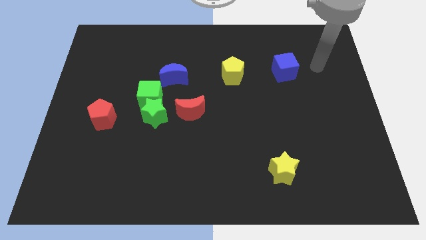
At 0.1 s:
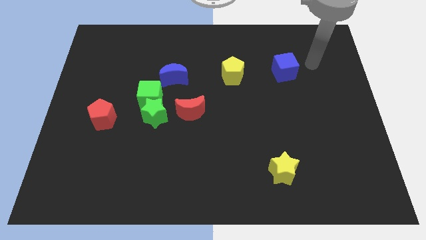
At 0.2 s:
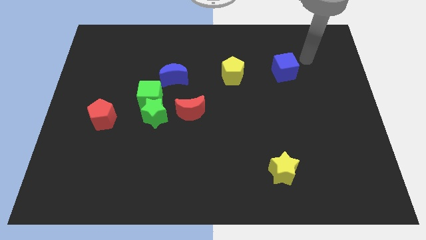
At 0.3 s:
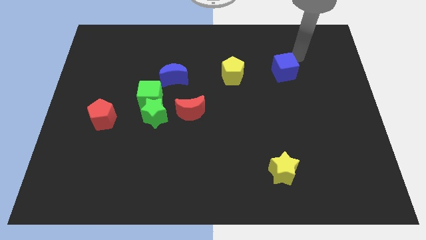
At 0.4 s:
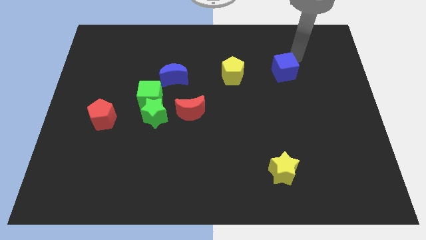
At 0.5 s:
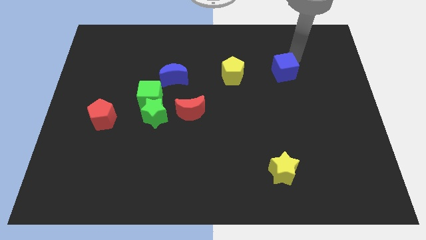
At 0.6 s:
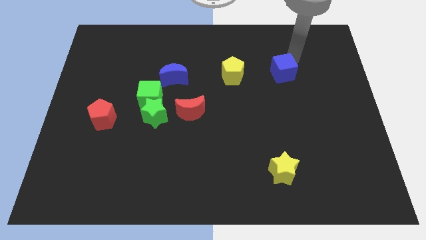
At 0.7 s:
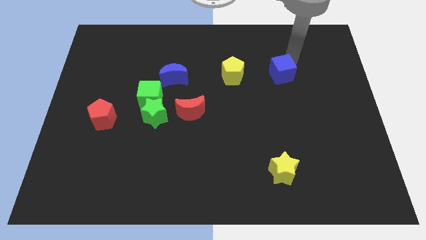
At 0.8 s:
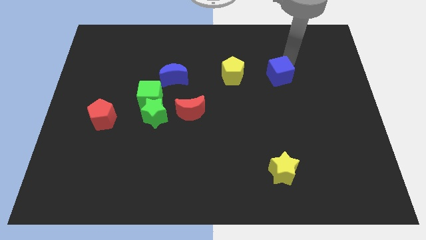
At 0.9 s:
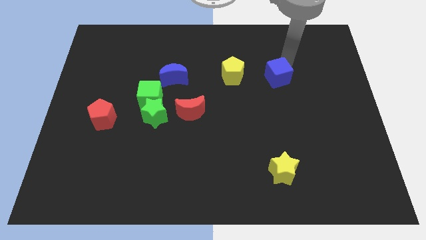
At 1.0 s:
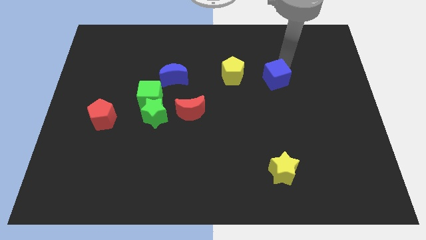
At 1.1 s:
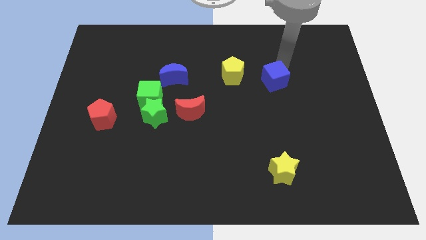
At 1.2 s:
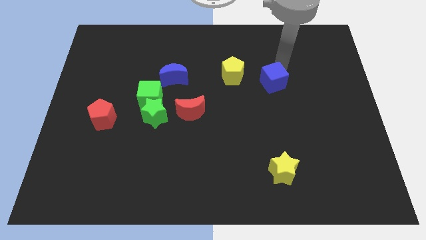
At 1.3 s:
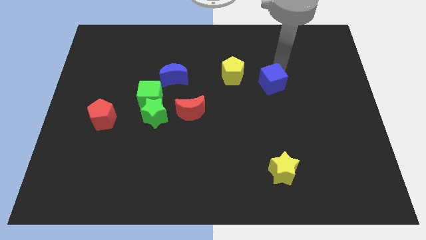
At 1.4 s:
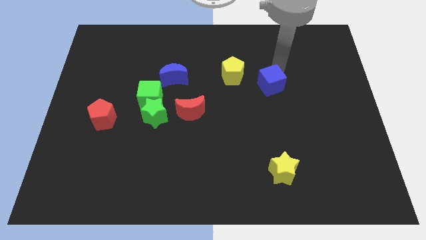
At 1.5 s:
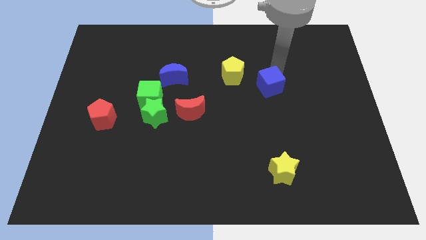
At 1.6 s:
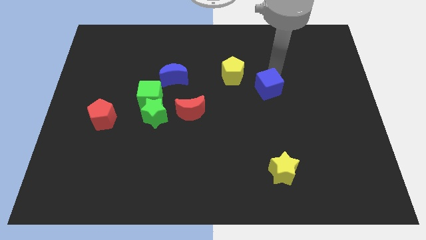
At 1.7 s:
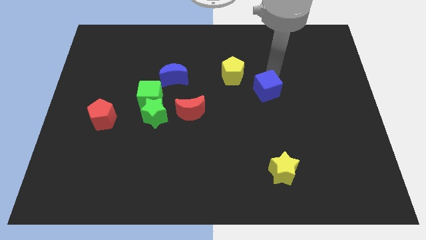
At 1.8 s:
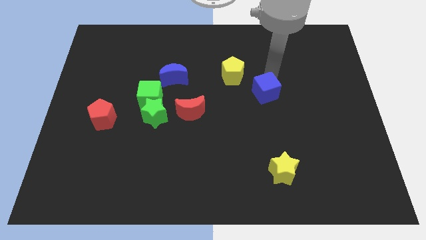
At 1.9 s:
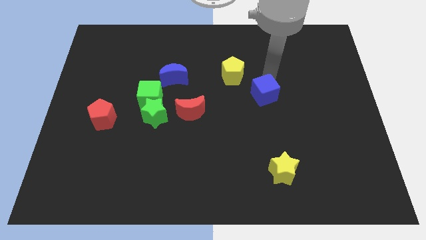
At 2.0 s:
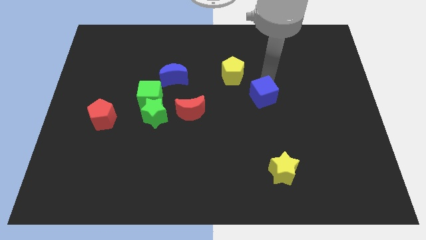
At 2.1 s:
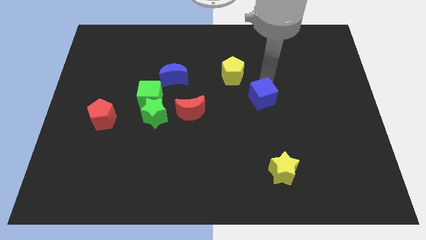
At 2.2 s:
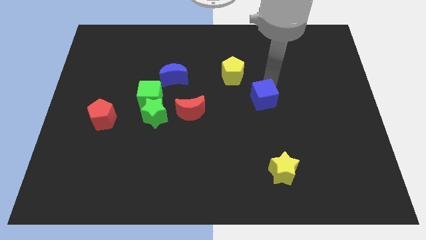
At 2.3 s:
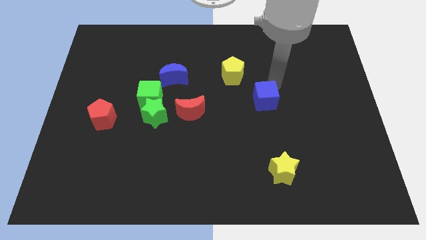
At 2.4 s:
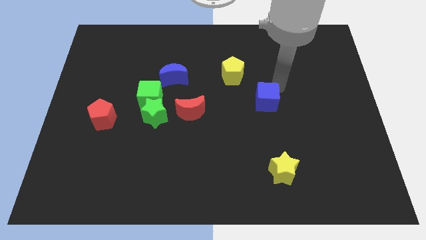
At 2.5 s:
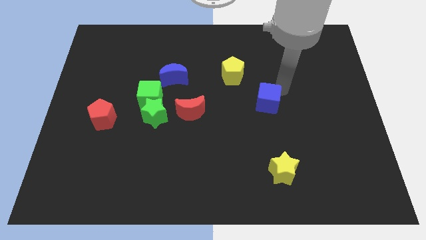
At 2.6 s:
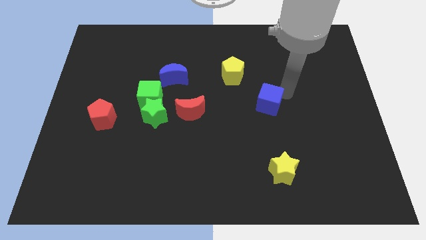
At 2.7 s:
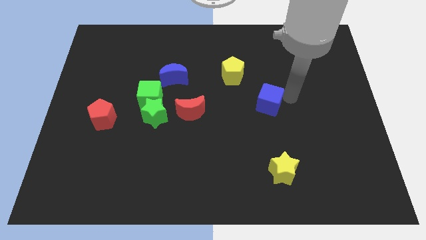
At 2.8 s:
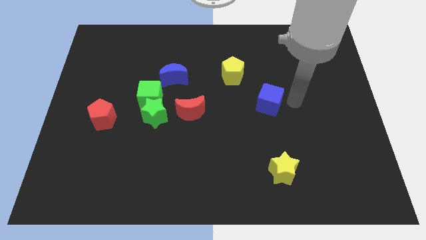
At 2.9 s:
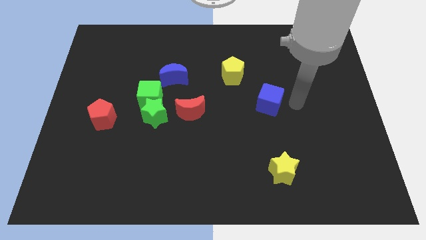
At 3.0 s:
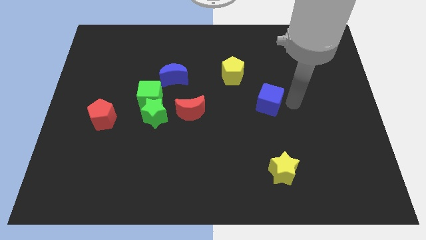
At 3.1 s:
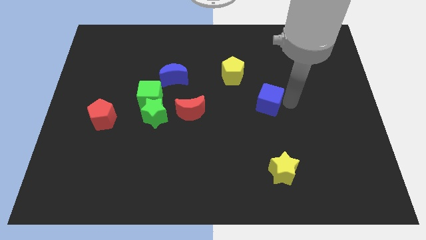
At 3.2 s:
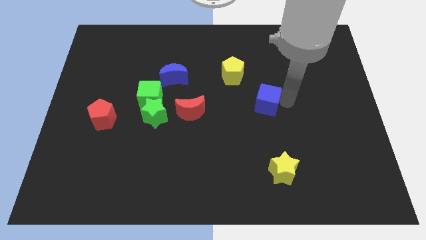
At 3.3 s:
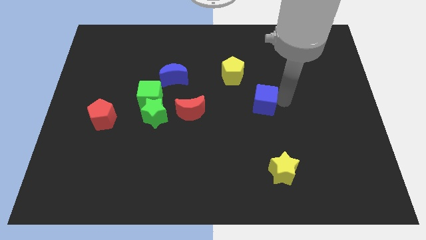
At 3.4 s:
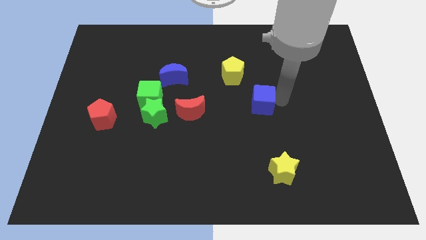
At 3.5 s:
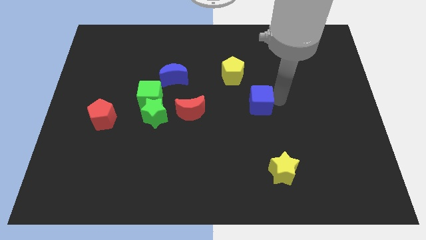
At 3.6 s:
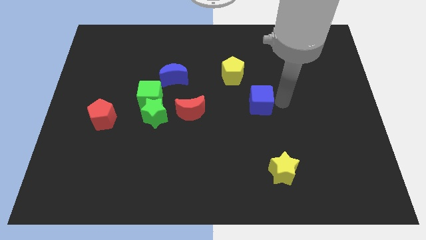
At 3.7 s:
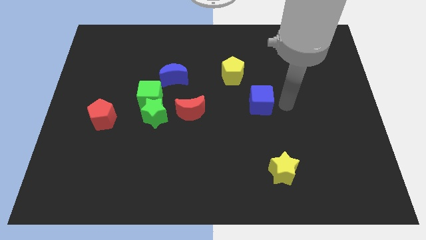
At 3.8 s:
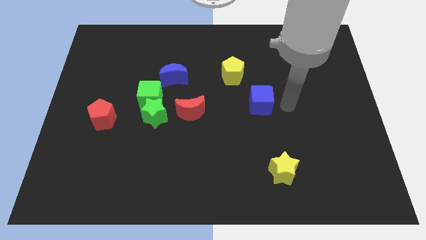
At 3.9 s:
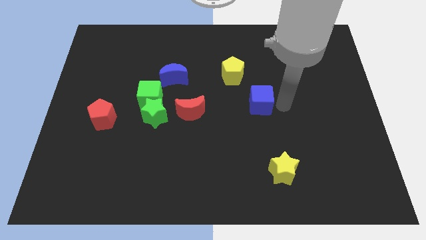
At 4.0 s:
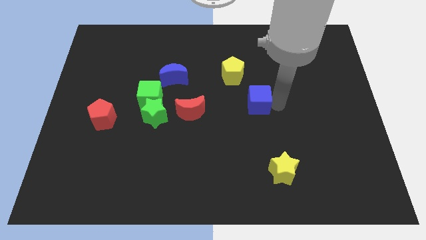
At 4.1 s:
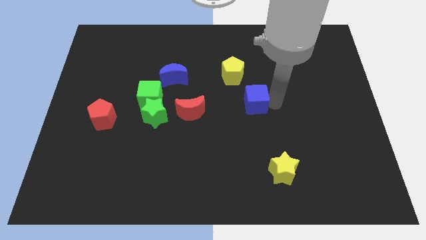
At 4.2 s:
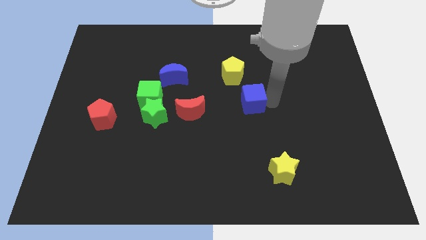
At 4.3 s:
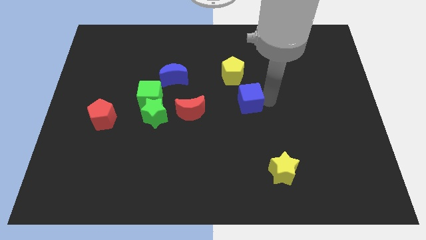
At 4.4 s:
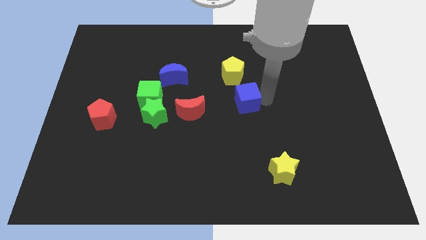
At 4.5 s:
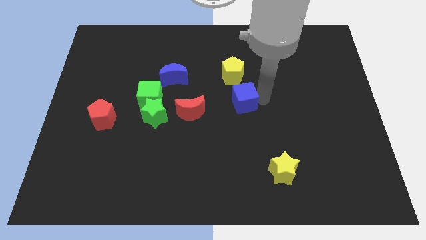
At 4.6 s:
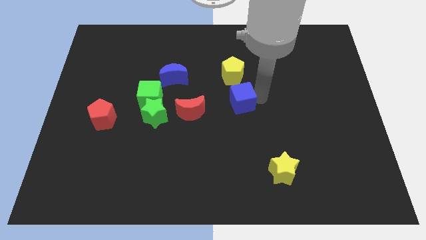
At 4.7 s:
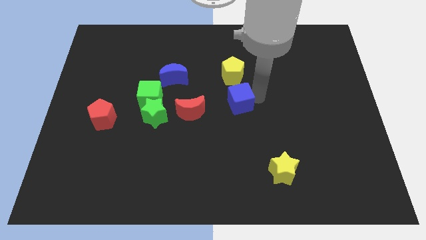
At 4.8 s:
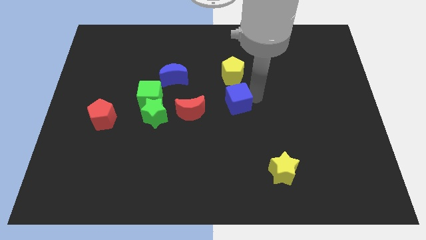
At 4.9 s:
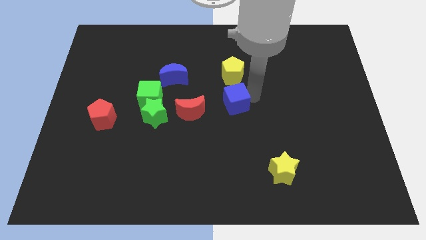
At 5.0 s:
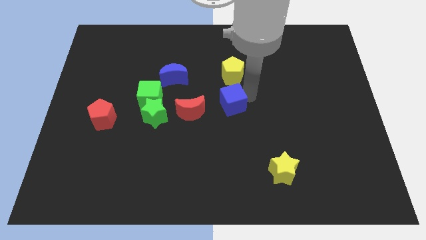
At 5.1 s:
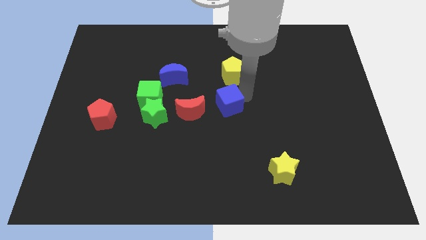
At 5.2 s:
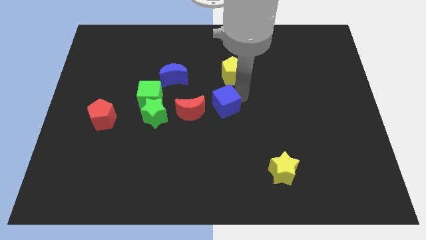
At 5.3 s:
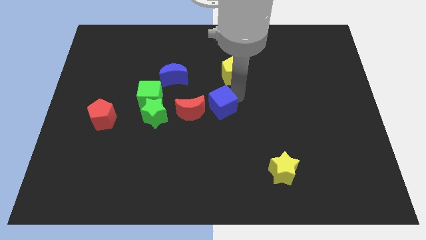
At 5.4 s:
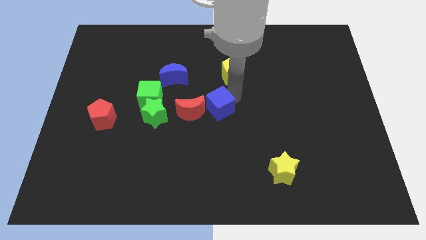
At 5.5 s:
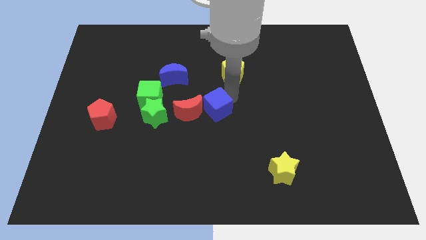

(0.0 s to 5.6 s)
slide the blue cube down and to the left

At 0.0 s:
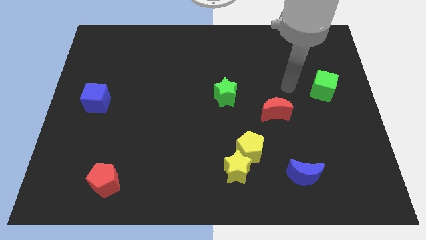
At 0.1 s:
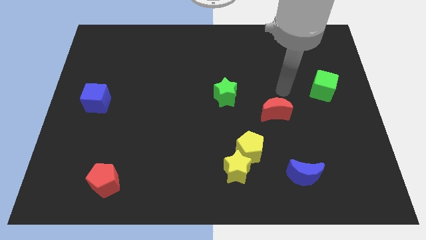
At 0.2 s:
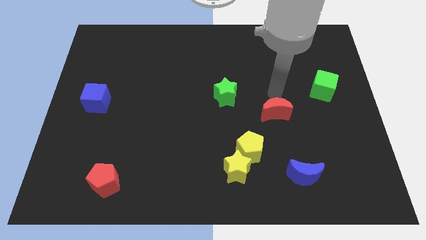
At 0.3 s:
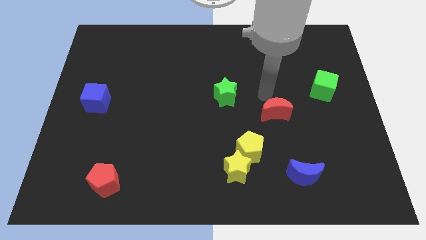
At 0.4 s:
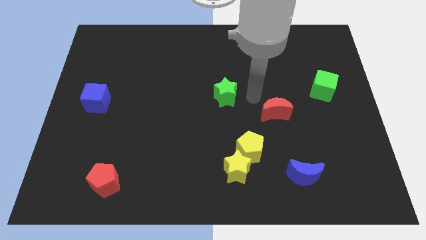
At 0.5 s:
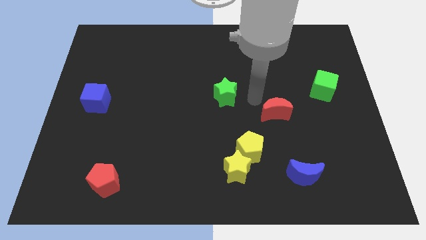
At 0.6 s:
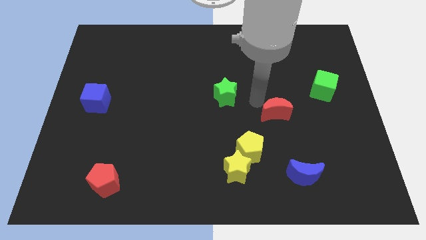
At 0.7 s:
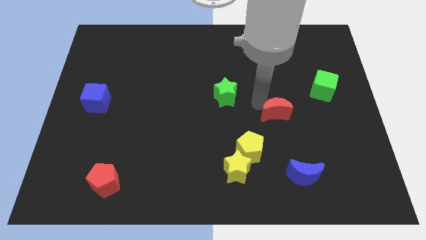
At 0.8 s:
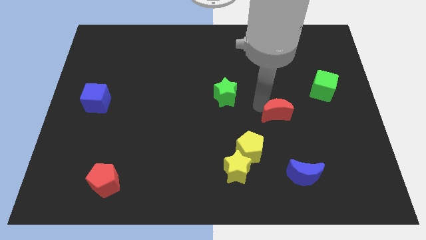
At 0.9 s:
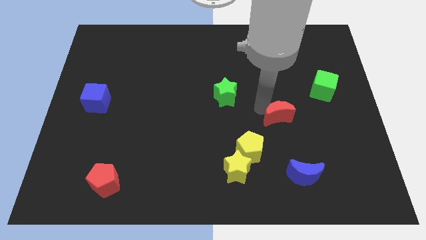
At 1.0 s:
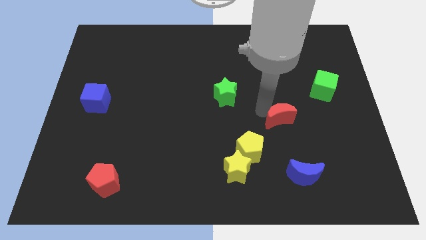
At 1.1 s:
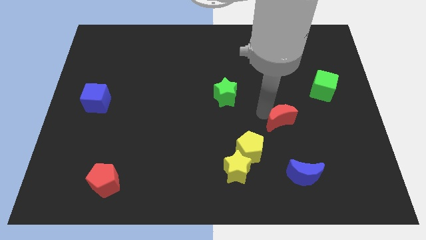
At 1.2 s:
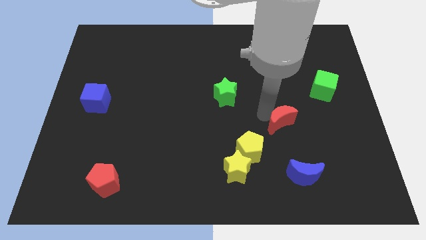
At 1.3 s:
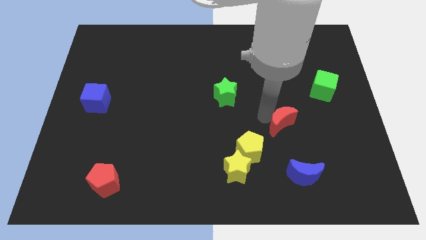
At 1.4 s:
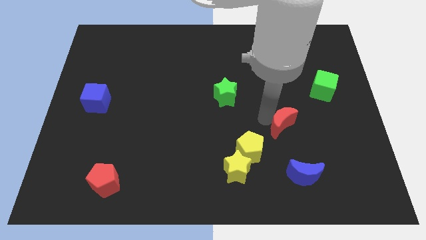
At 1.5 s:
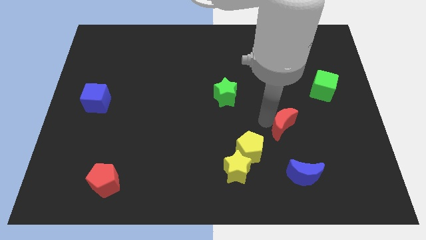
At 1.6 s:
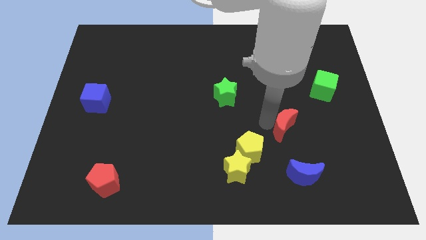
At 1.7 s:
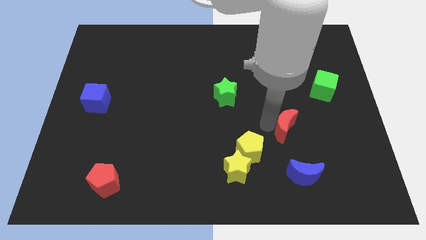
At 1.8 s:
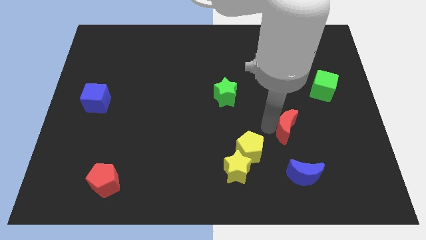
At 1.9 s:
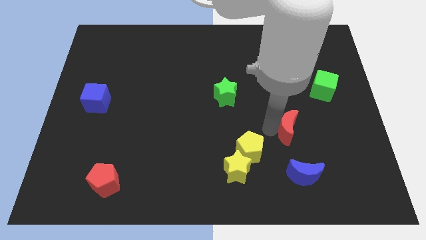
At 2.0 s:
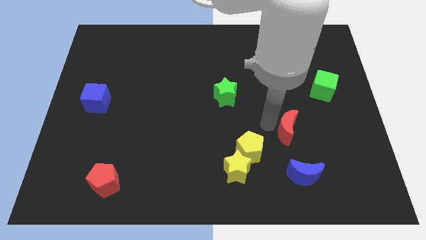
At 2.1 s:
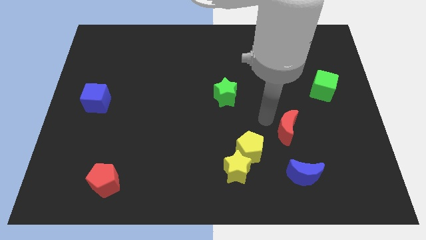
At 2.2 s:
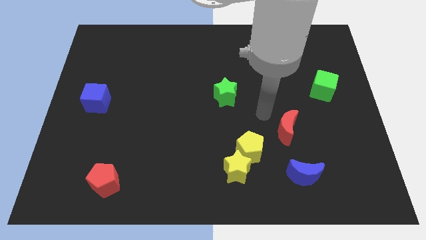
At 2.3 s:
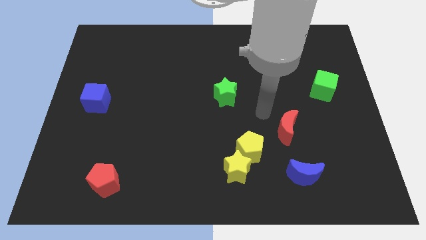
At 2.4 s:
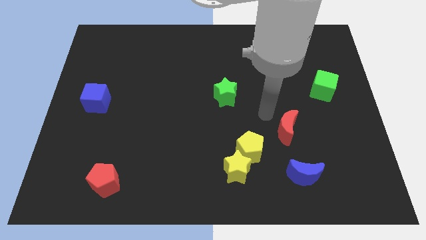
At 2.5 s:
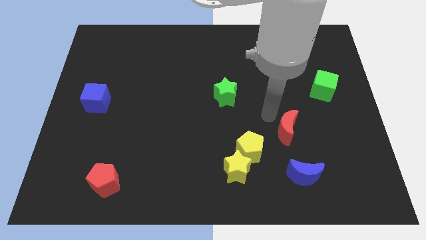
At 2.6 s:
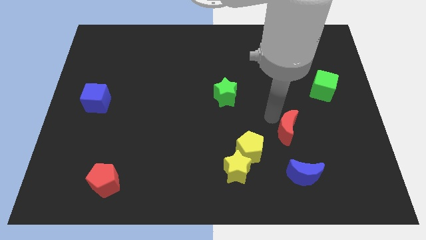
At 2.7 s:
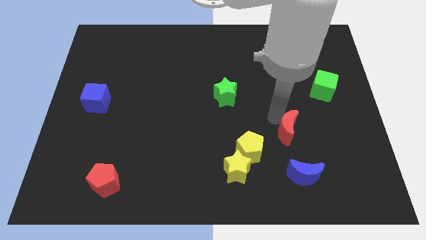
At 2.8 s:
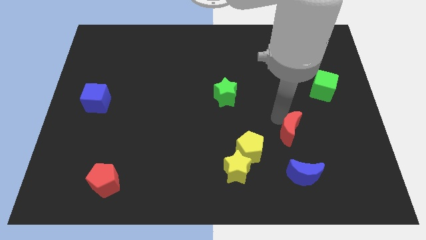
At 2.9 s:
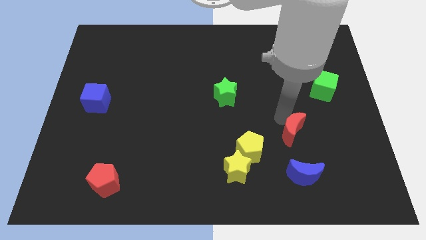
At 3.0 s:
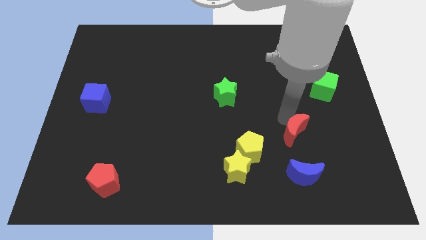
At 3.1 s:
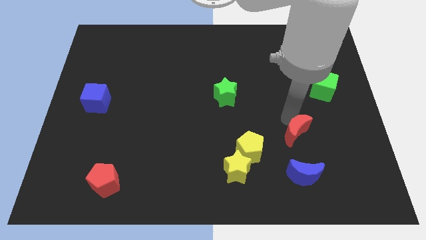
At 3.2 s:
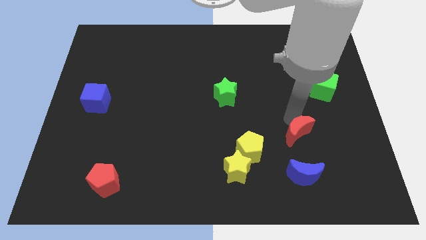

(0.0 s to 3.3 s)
slightly move the red moon downwards and right diagonally
